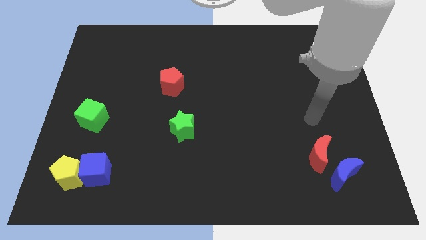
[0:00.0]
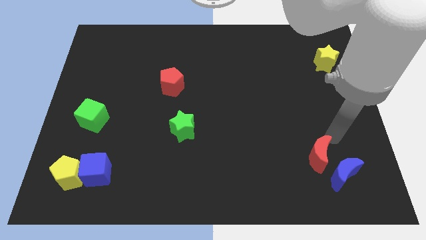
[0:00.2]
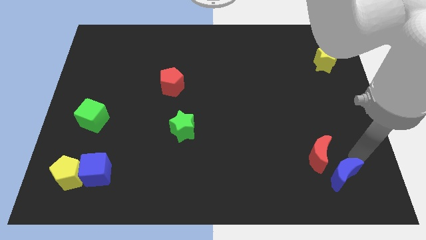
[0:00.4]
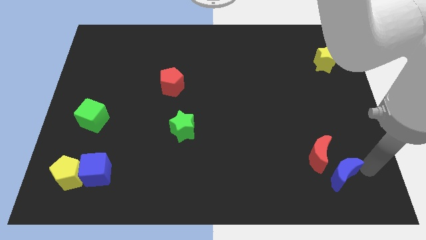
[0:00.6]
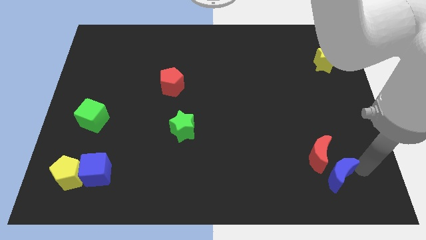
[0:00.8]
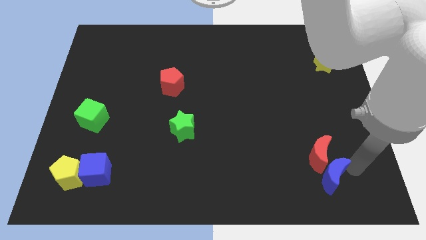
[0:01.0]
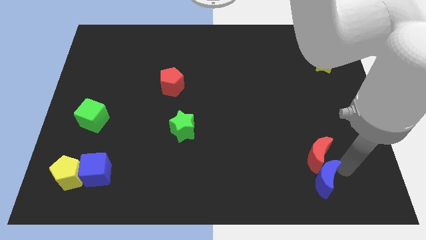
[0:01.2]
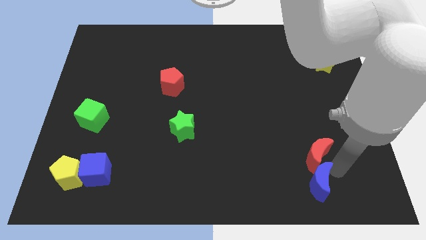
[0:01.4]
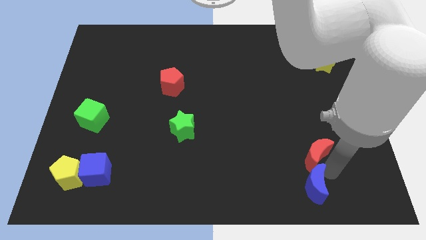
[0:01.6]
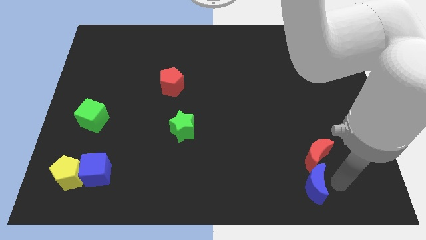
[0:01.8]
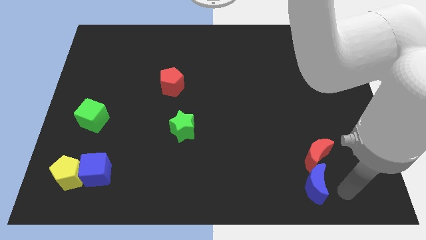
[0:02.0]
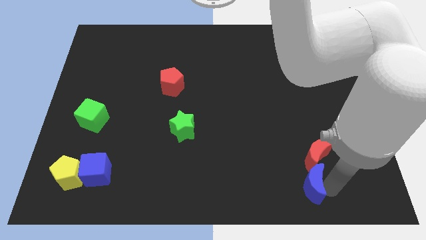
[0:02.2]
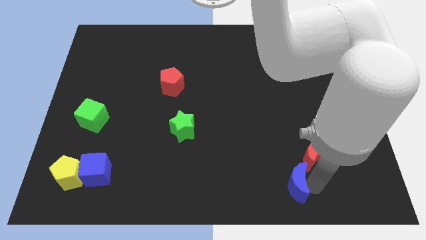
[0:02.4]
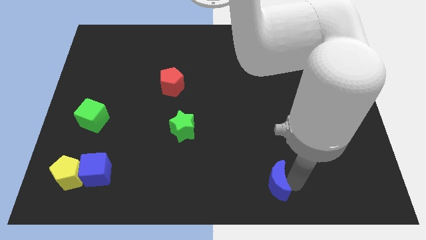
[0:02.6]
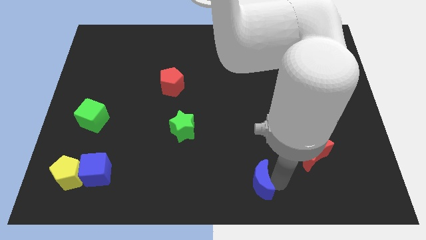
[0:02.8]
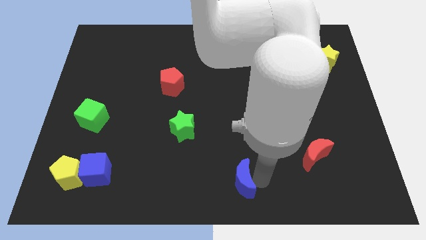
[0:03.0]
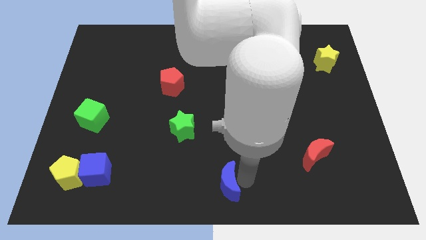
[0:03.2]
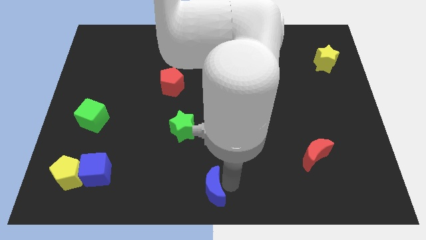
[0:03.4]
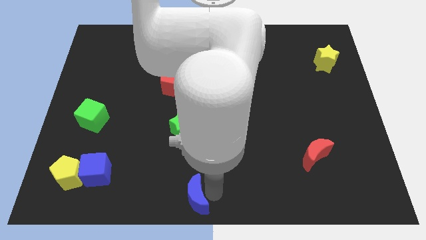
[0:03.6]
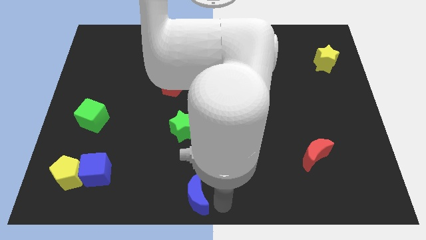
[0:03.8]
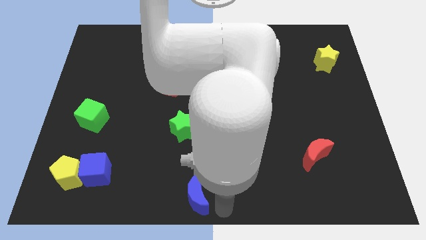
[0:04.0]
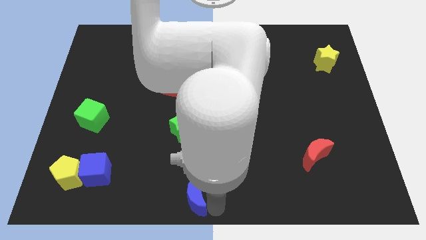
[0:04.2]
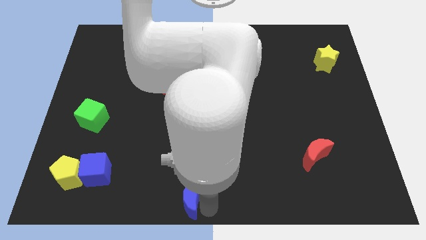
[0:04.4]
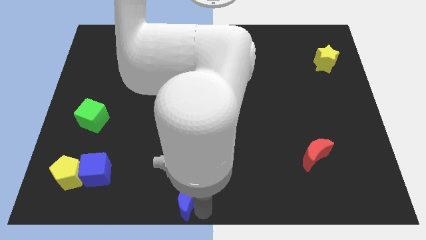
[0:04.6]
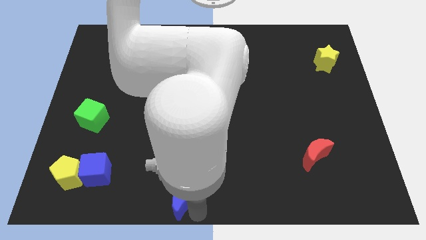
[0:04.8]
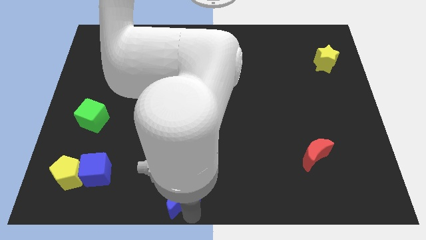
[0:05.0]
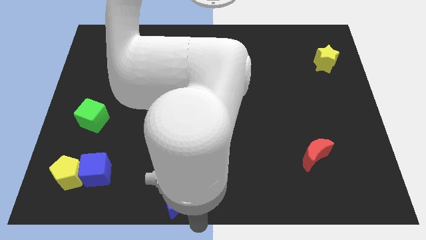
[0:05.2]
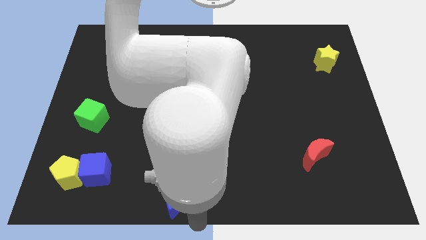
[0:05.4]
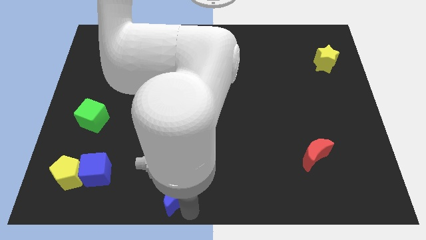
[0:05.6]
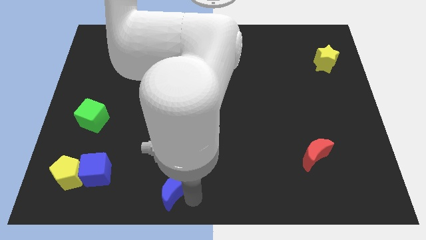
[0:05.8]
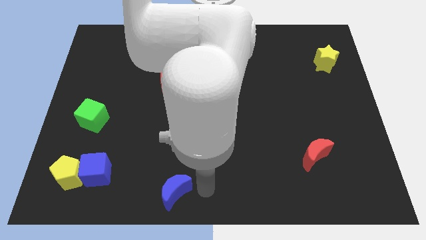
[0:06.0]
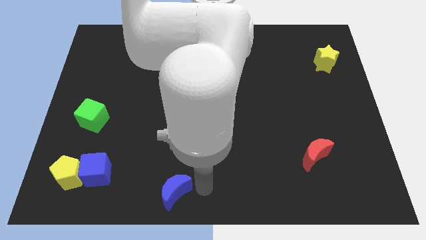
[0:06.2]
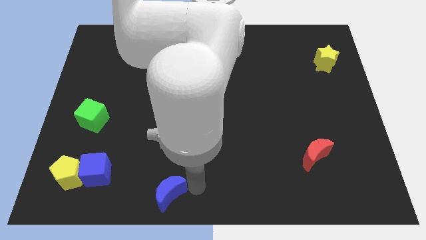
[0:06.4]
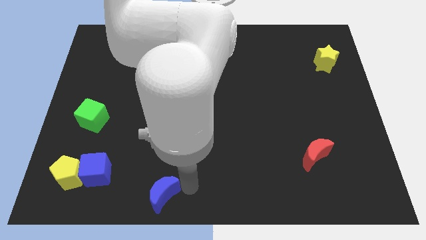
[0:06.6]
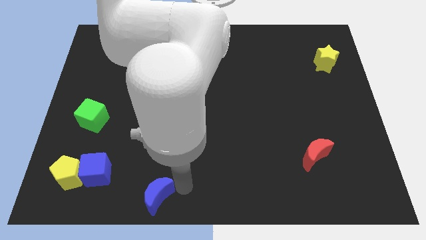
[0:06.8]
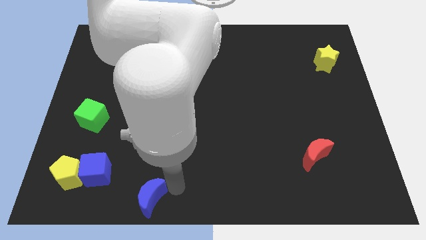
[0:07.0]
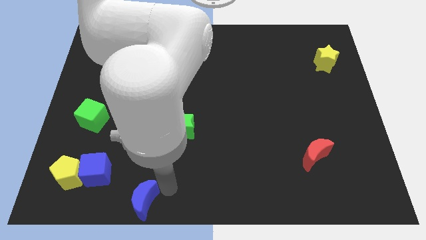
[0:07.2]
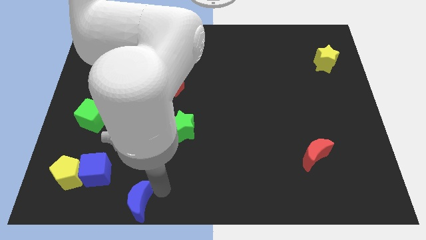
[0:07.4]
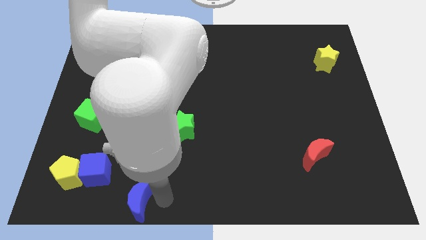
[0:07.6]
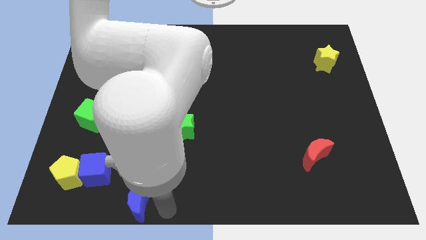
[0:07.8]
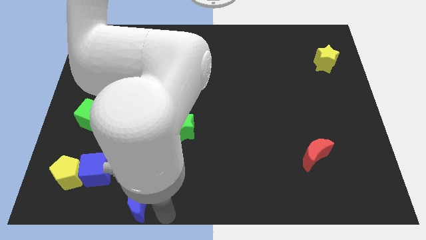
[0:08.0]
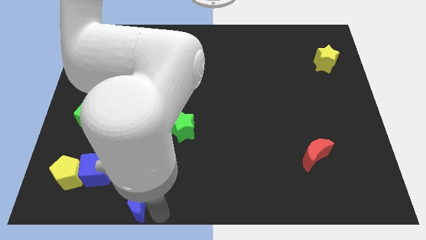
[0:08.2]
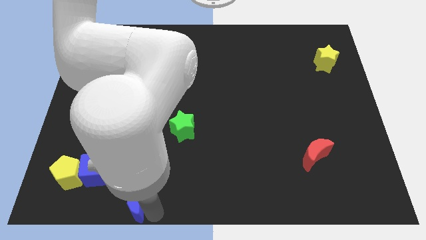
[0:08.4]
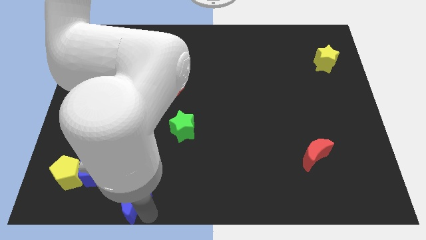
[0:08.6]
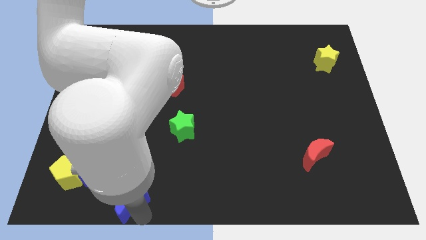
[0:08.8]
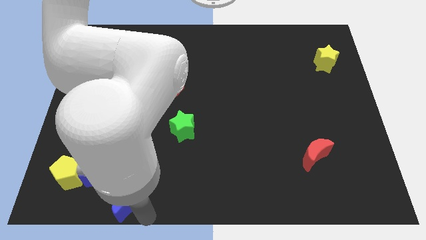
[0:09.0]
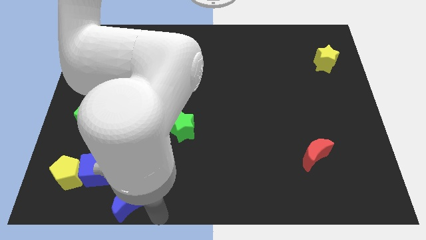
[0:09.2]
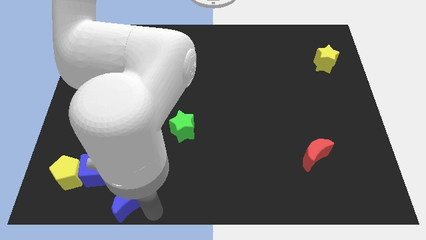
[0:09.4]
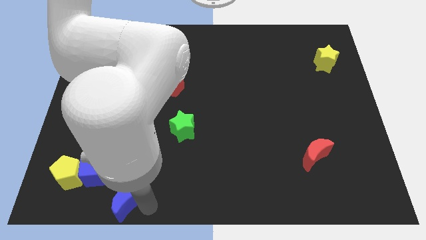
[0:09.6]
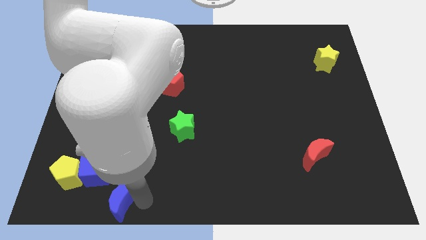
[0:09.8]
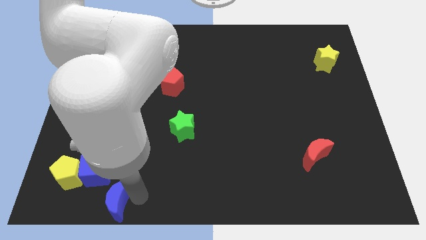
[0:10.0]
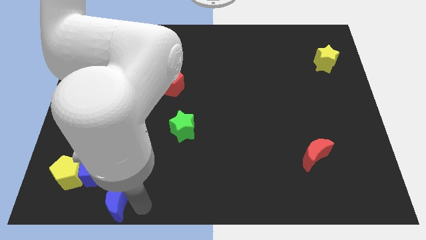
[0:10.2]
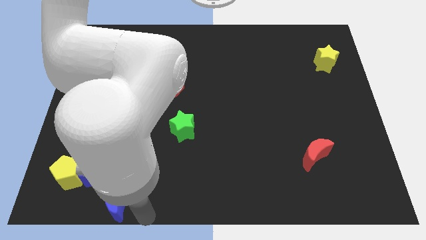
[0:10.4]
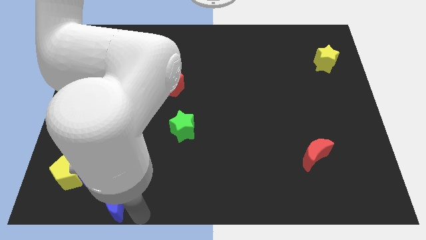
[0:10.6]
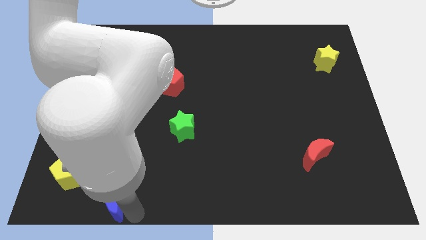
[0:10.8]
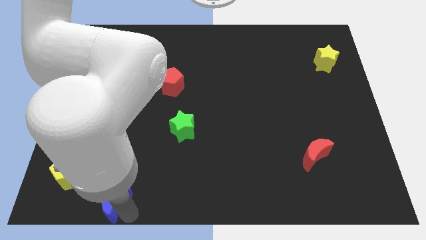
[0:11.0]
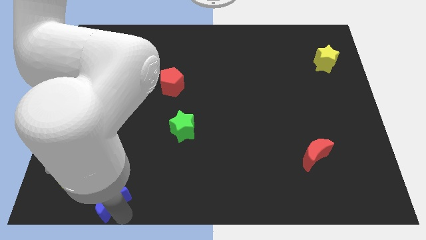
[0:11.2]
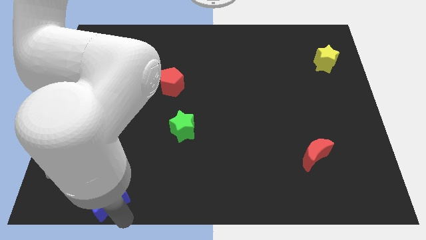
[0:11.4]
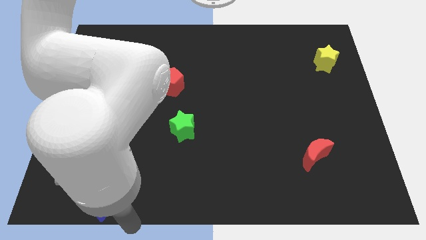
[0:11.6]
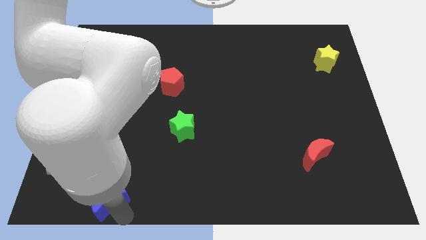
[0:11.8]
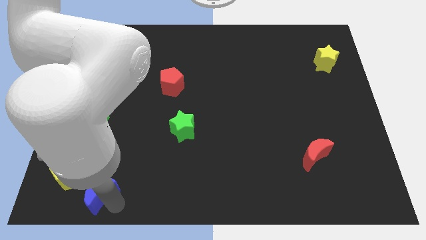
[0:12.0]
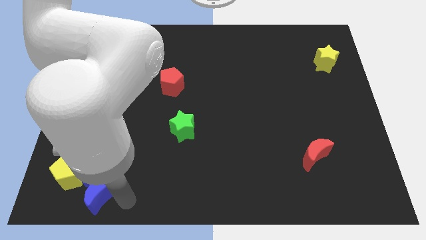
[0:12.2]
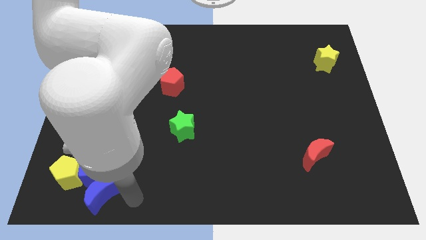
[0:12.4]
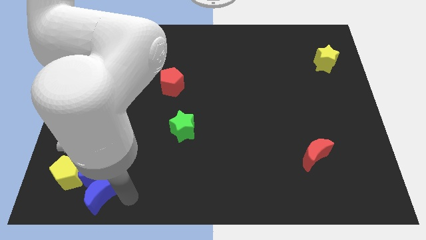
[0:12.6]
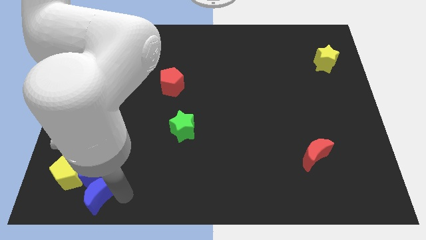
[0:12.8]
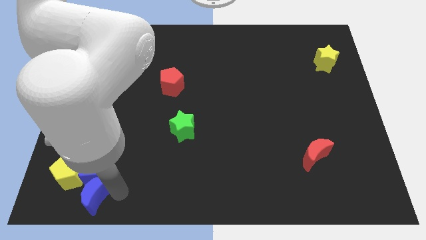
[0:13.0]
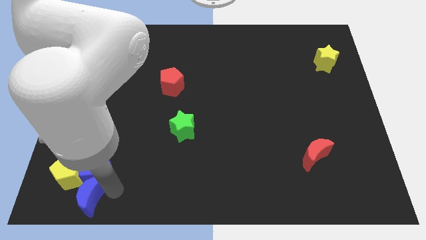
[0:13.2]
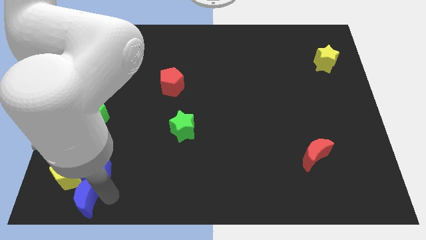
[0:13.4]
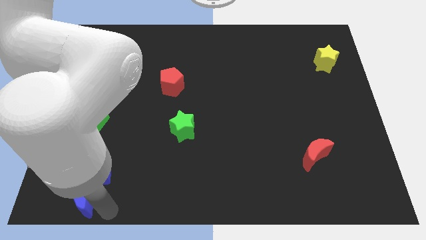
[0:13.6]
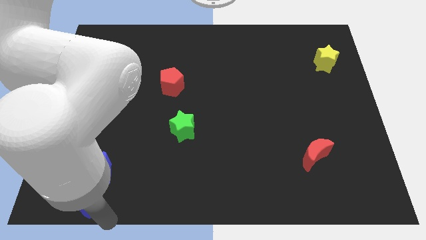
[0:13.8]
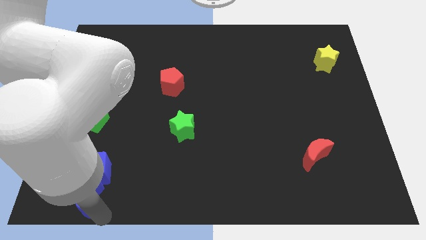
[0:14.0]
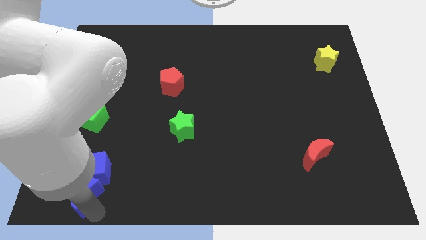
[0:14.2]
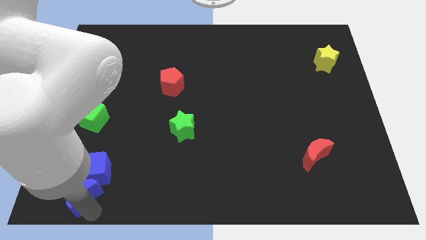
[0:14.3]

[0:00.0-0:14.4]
push the blue moon next to the yellow pentagon
